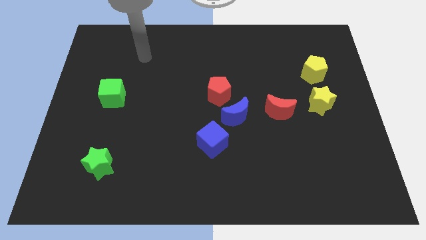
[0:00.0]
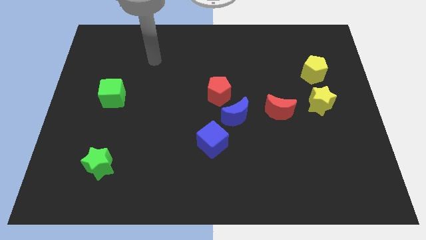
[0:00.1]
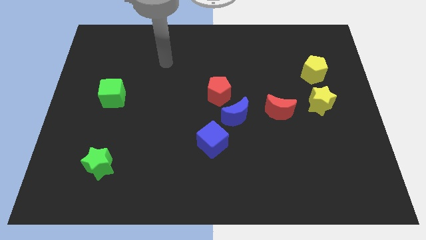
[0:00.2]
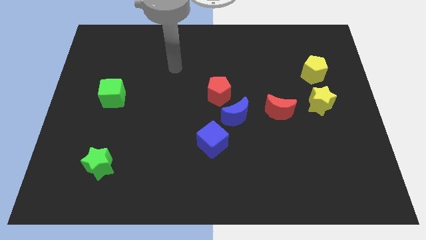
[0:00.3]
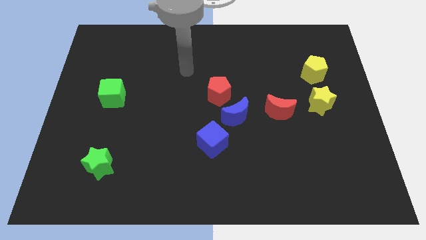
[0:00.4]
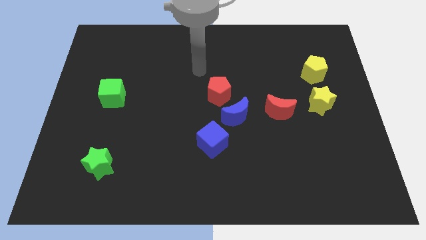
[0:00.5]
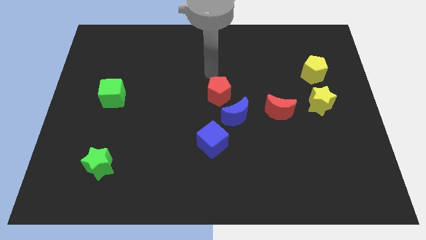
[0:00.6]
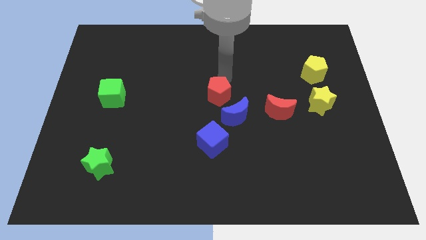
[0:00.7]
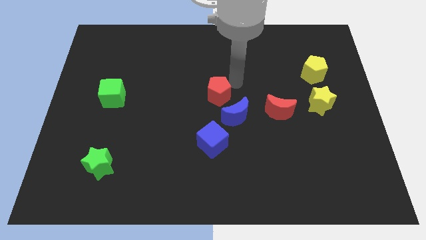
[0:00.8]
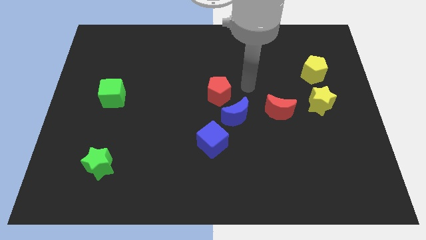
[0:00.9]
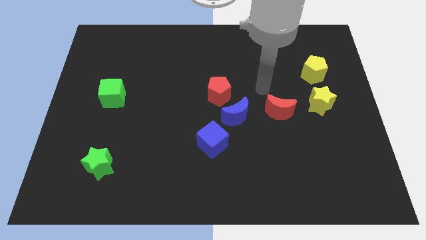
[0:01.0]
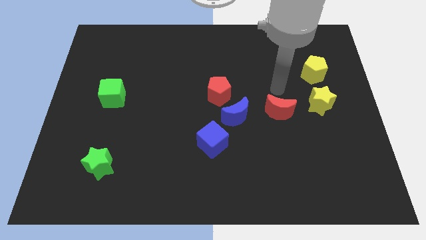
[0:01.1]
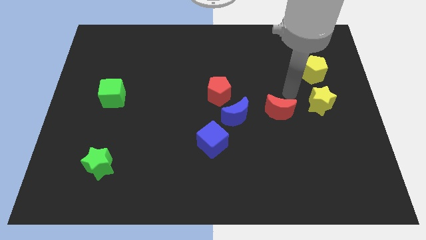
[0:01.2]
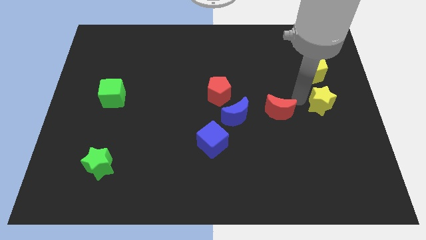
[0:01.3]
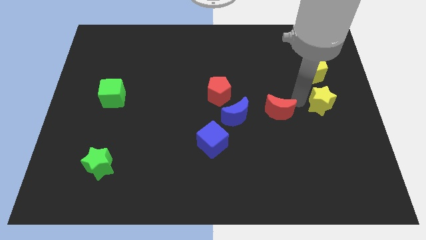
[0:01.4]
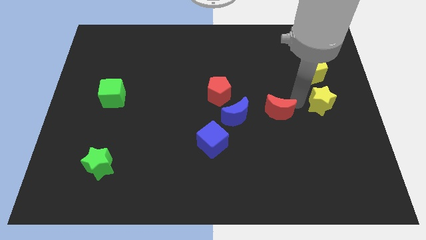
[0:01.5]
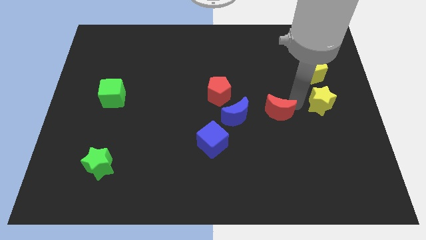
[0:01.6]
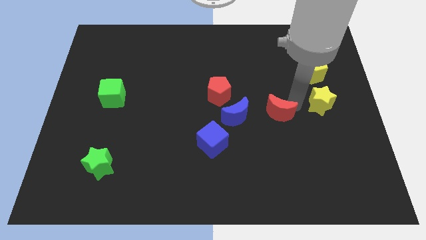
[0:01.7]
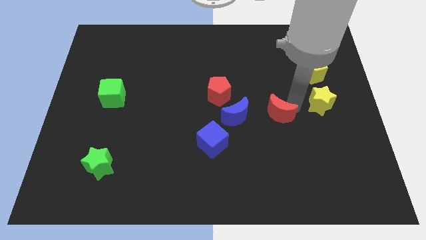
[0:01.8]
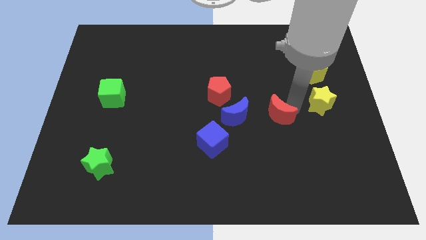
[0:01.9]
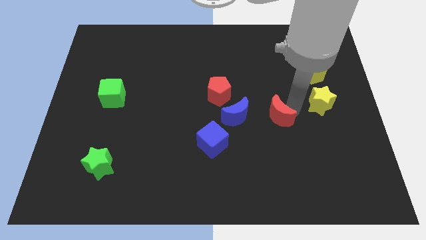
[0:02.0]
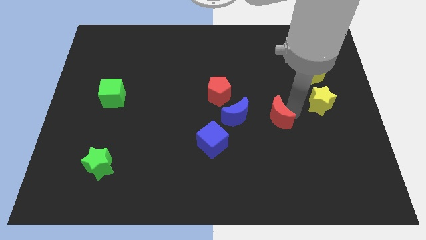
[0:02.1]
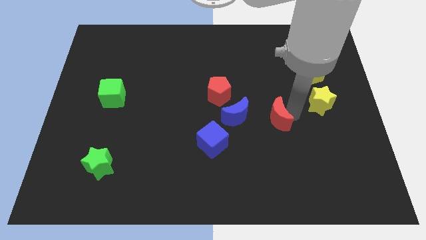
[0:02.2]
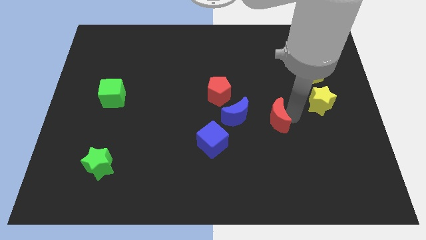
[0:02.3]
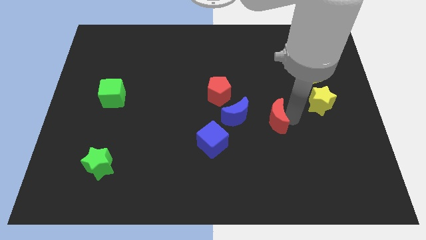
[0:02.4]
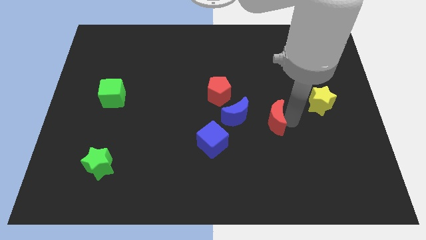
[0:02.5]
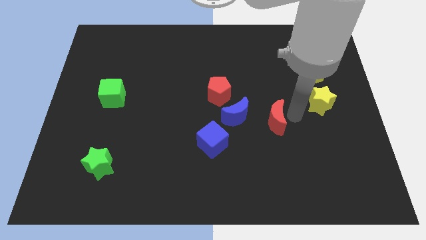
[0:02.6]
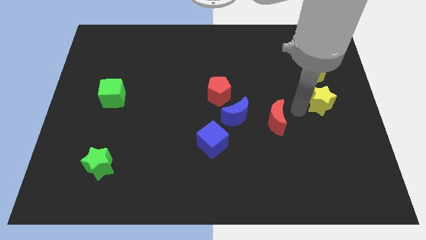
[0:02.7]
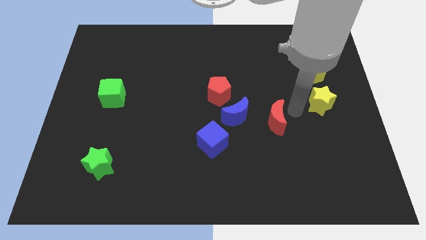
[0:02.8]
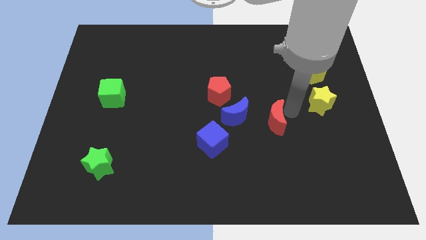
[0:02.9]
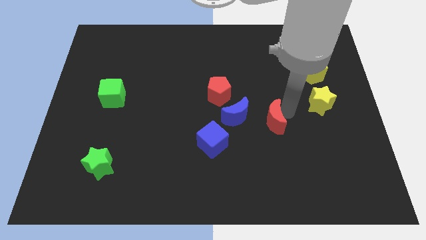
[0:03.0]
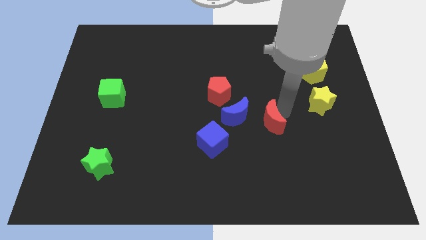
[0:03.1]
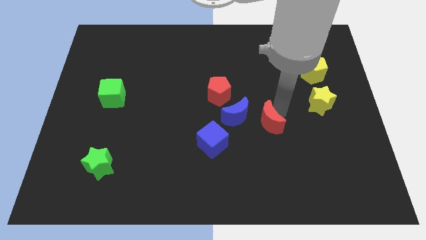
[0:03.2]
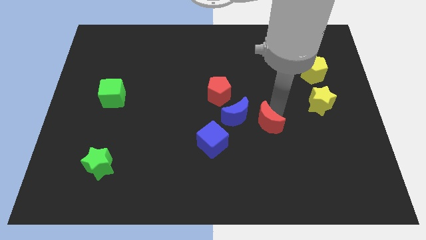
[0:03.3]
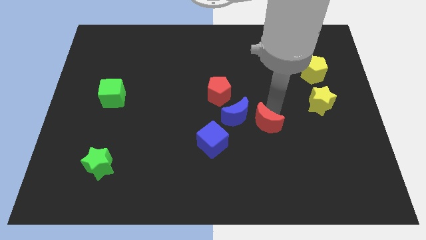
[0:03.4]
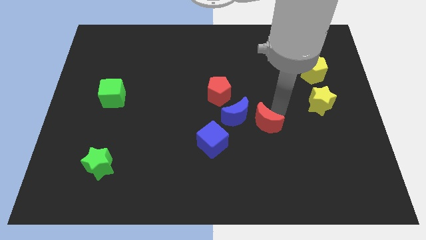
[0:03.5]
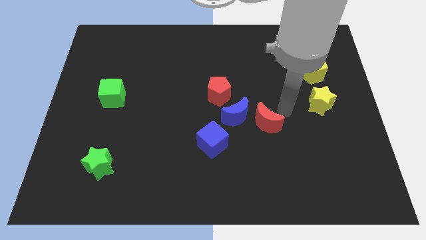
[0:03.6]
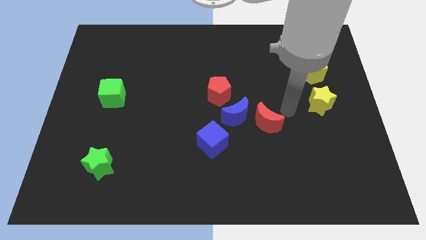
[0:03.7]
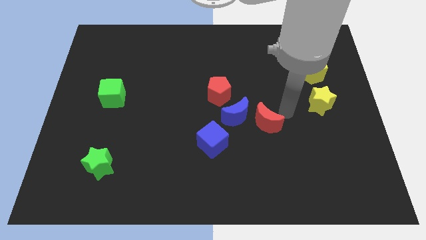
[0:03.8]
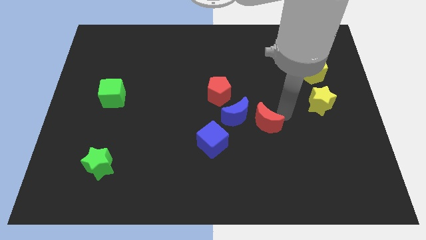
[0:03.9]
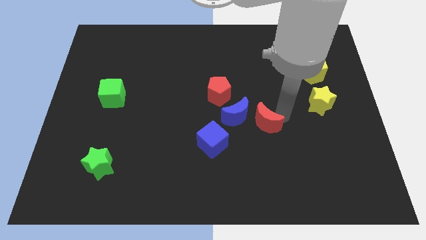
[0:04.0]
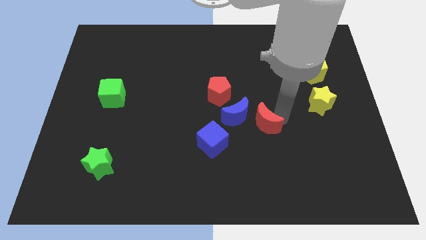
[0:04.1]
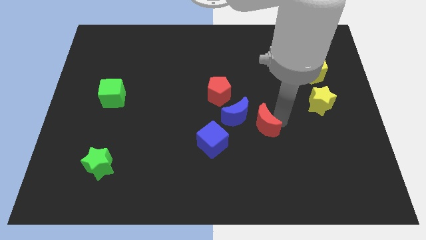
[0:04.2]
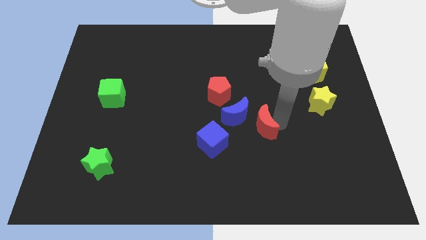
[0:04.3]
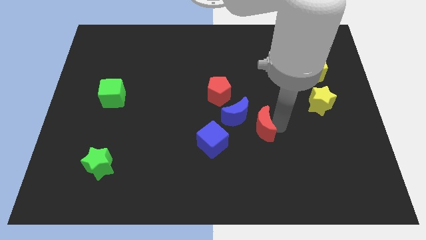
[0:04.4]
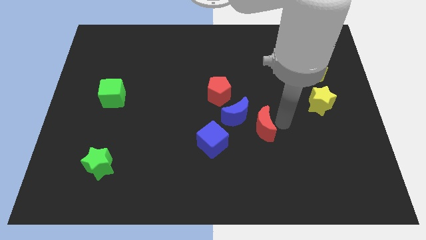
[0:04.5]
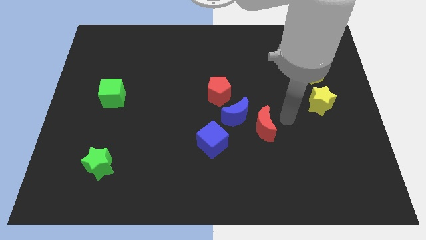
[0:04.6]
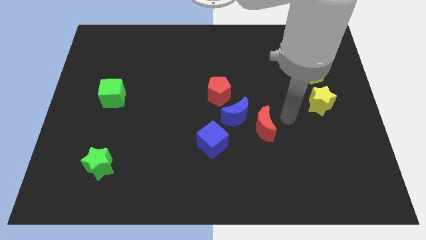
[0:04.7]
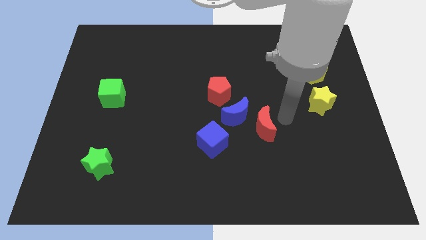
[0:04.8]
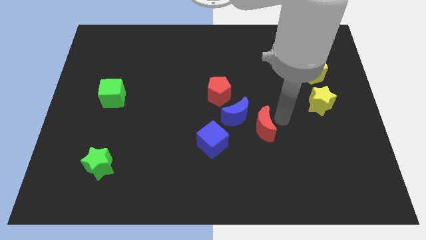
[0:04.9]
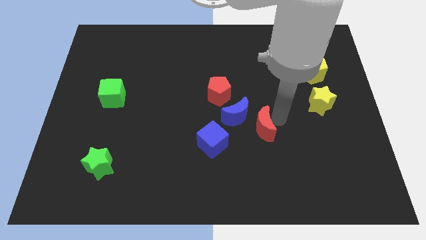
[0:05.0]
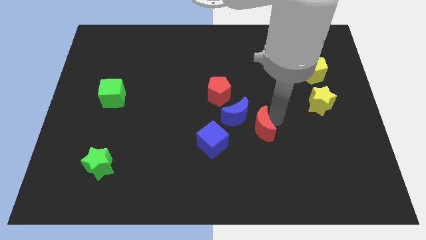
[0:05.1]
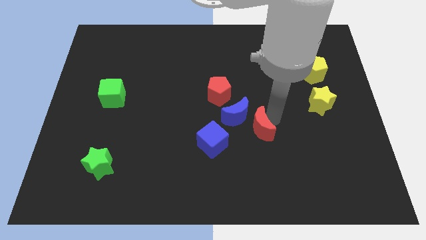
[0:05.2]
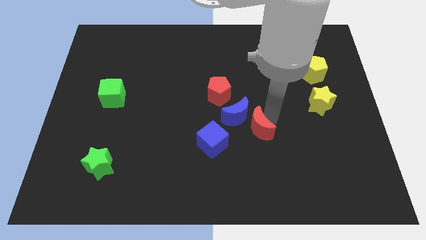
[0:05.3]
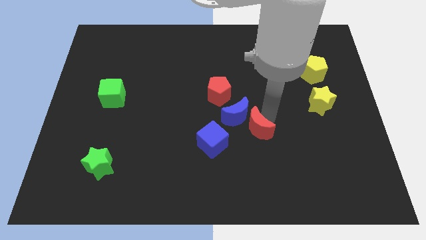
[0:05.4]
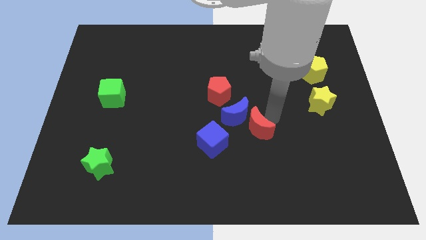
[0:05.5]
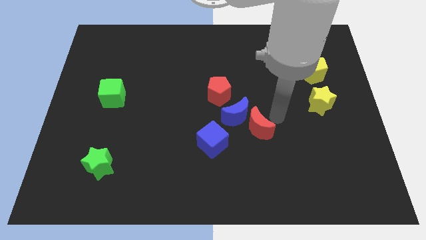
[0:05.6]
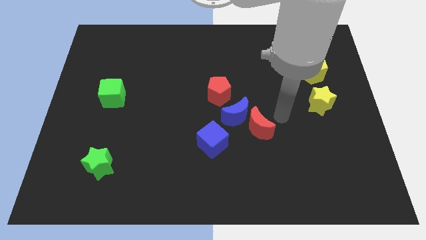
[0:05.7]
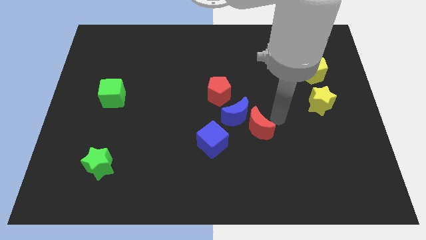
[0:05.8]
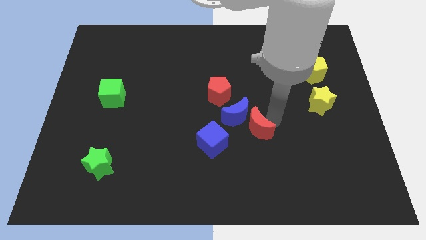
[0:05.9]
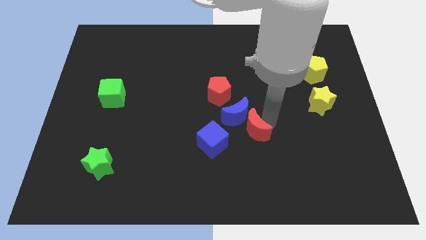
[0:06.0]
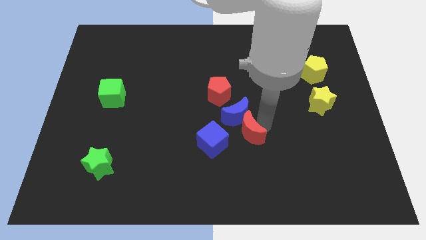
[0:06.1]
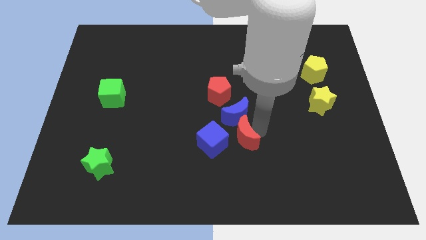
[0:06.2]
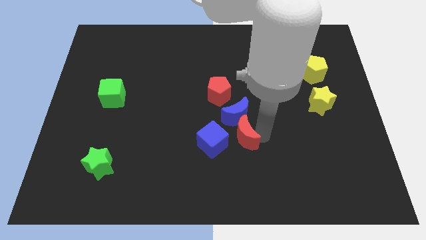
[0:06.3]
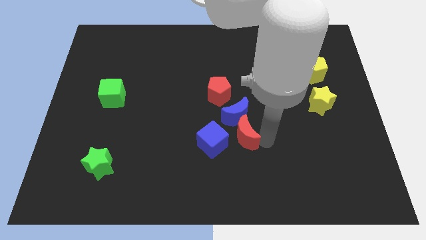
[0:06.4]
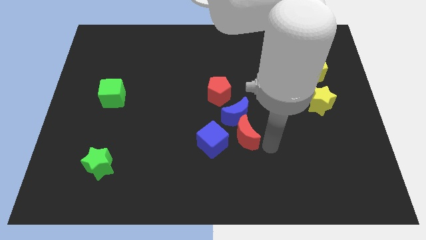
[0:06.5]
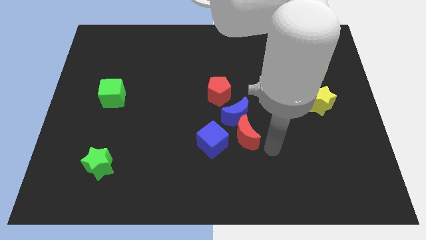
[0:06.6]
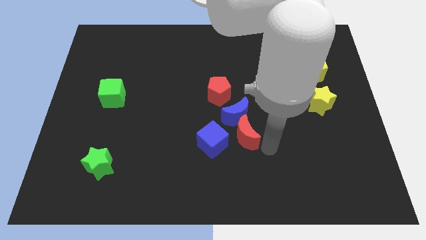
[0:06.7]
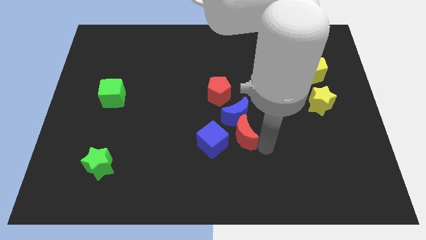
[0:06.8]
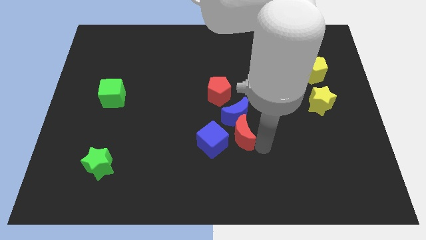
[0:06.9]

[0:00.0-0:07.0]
slightly slide the red moon left

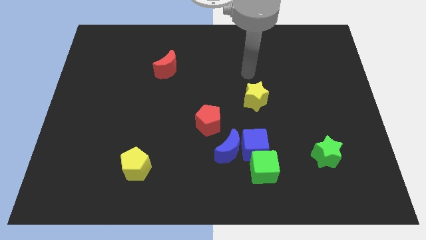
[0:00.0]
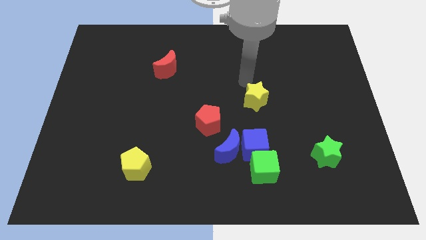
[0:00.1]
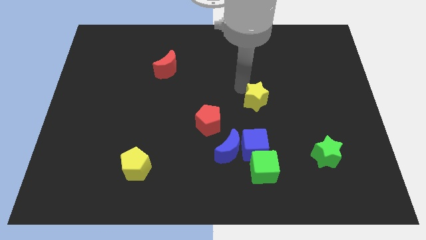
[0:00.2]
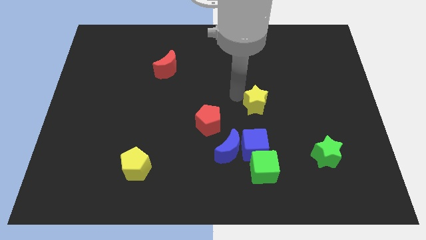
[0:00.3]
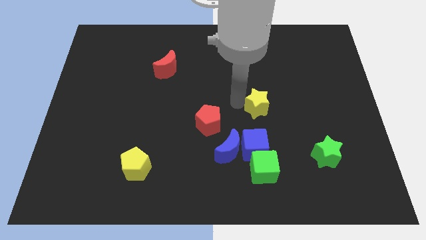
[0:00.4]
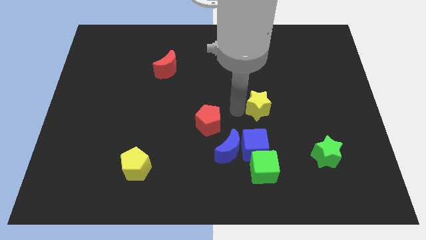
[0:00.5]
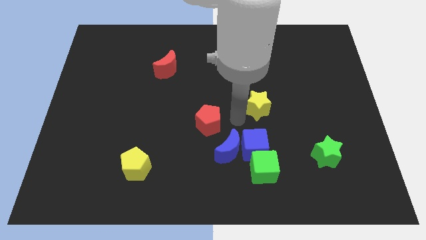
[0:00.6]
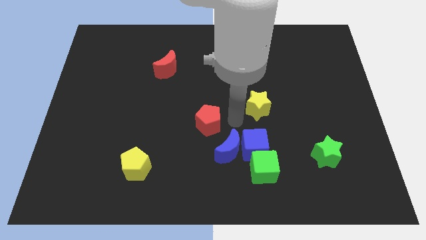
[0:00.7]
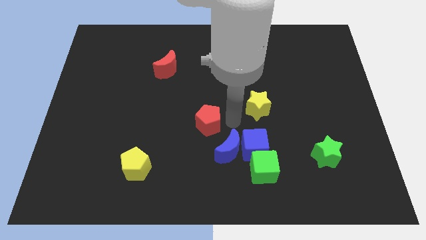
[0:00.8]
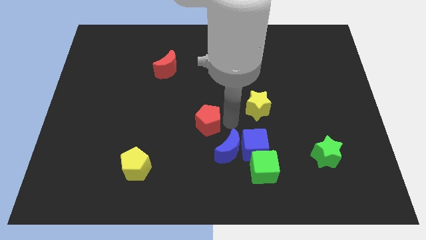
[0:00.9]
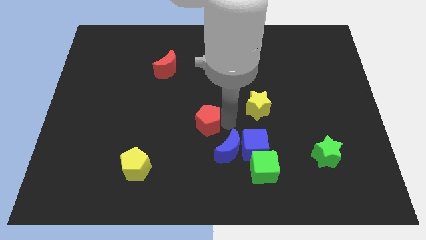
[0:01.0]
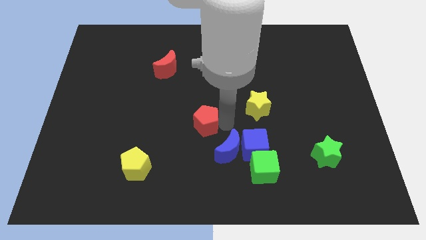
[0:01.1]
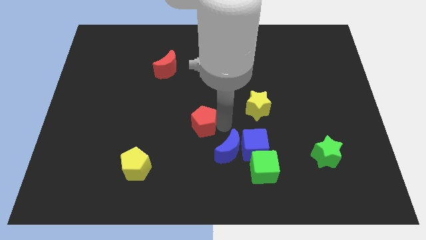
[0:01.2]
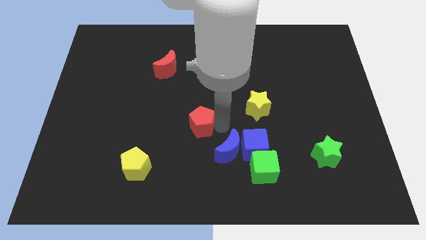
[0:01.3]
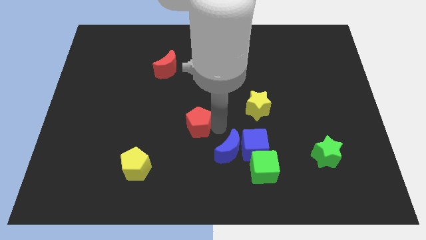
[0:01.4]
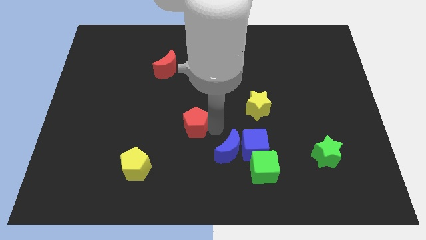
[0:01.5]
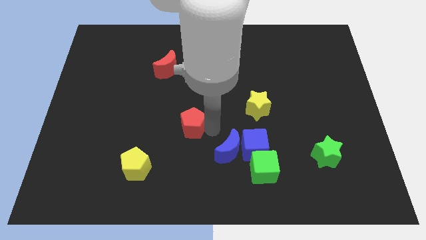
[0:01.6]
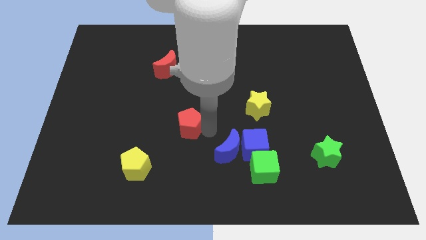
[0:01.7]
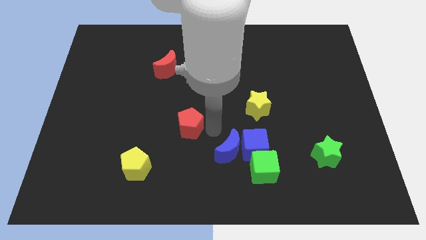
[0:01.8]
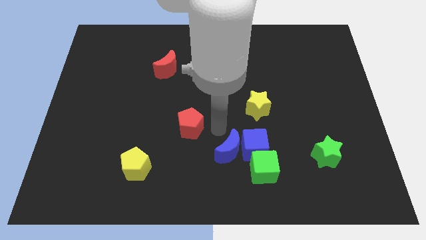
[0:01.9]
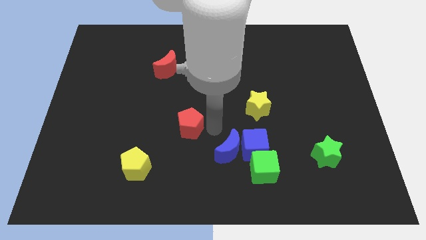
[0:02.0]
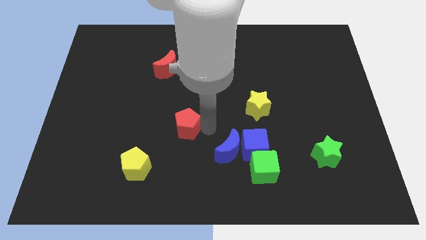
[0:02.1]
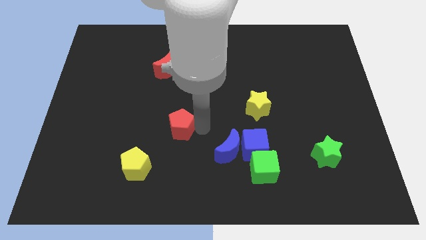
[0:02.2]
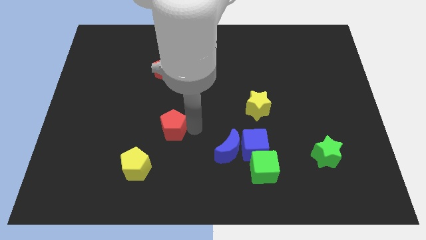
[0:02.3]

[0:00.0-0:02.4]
slide the red pentagon a little bit to the left
